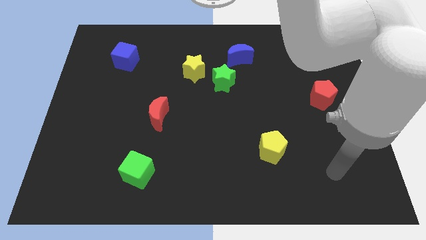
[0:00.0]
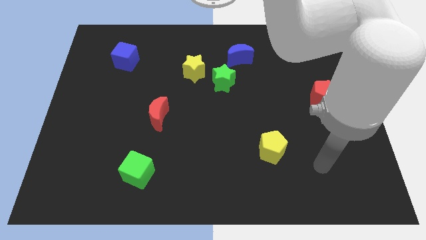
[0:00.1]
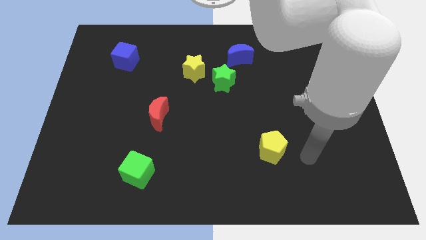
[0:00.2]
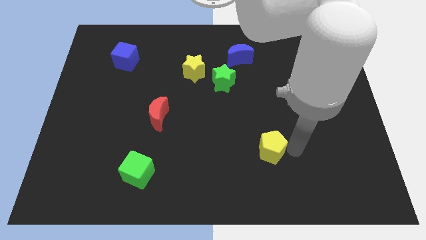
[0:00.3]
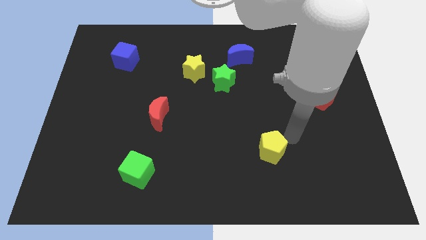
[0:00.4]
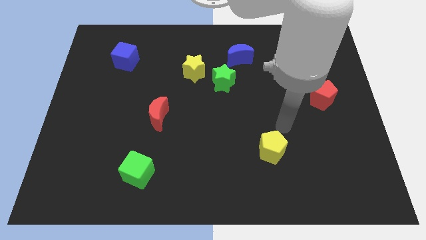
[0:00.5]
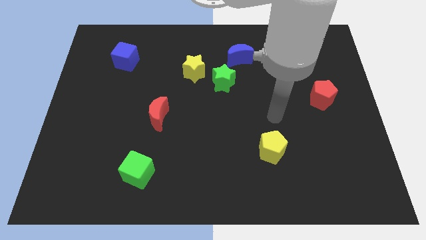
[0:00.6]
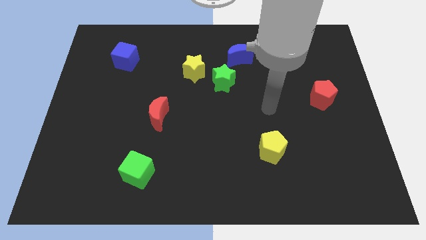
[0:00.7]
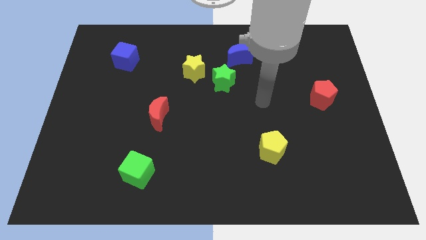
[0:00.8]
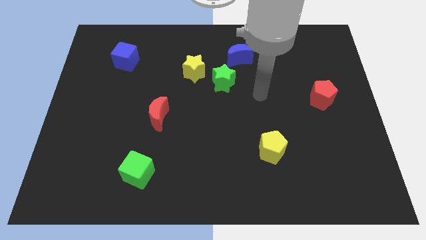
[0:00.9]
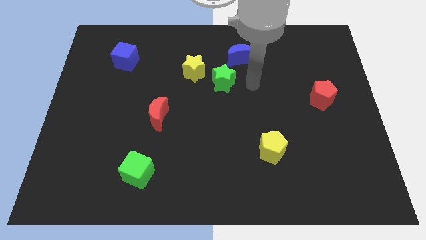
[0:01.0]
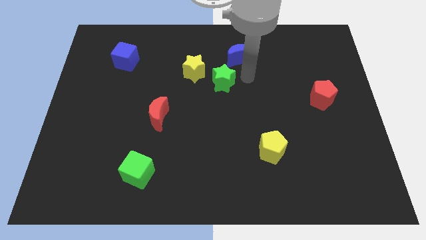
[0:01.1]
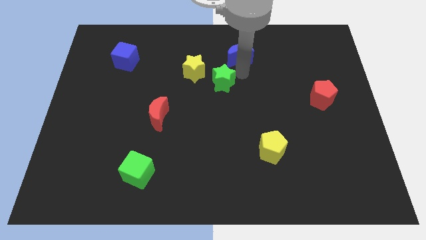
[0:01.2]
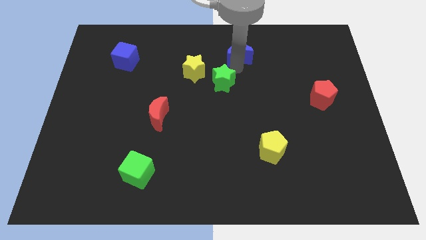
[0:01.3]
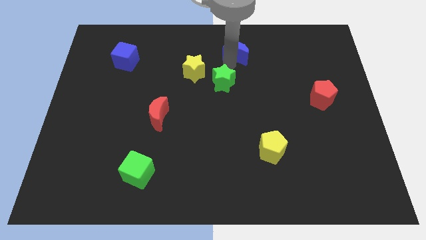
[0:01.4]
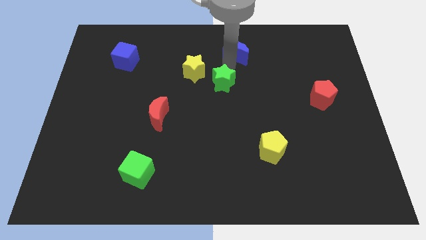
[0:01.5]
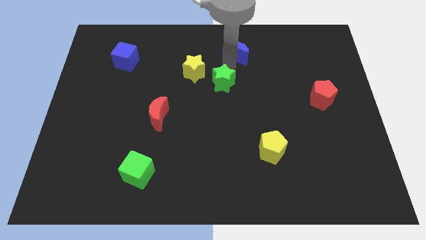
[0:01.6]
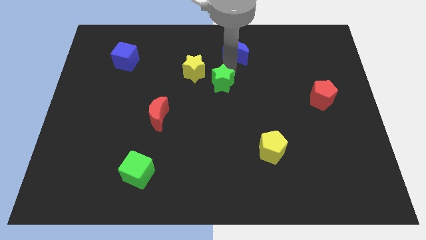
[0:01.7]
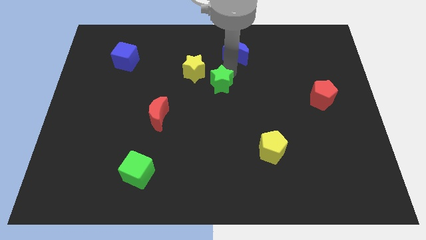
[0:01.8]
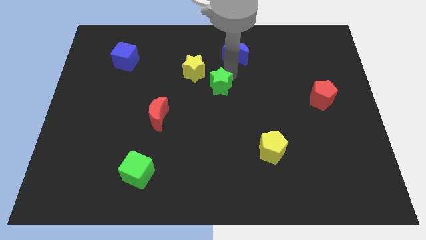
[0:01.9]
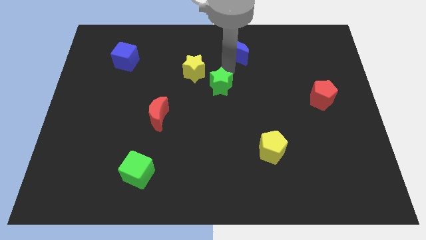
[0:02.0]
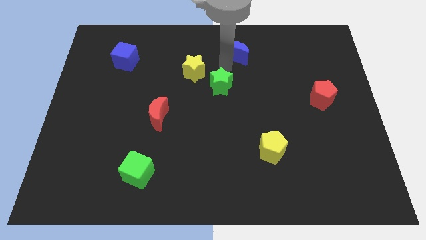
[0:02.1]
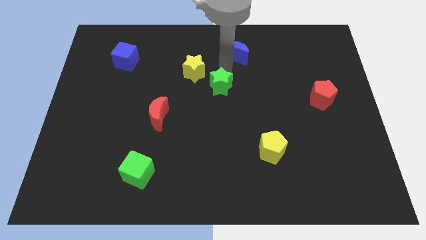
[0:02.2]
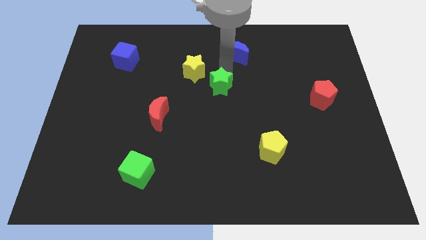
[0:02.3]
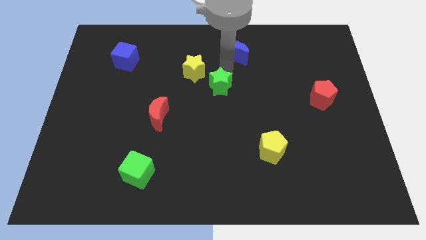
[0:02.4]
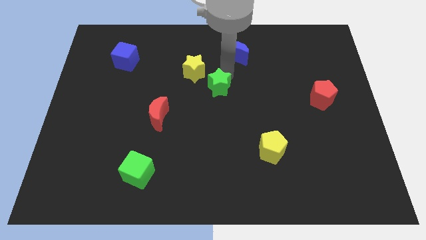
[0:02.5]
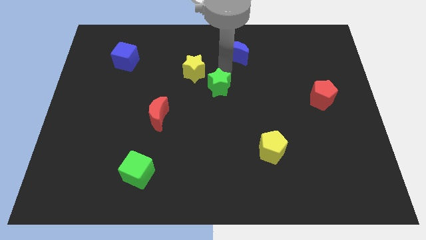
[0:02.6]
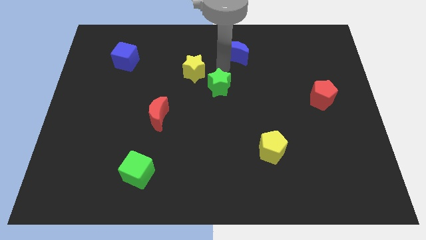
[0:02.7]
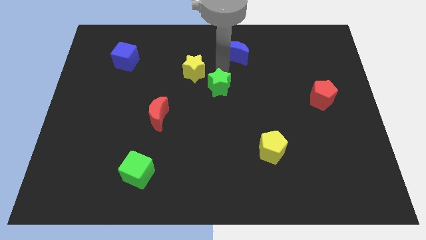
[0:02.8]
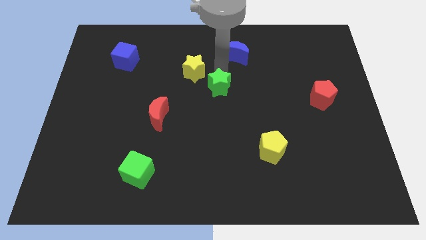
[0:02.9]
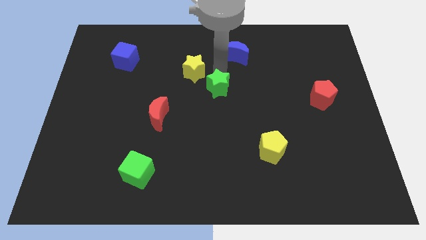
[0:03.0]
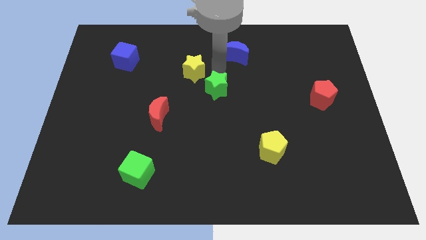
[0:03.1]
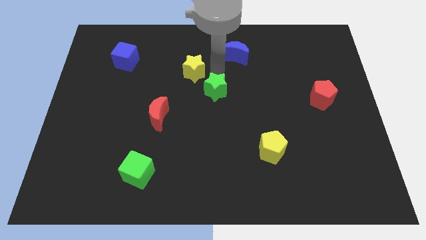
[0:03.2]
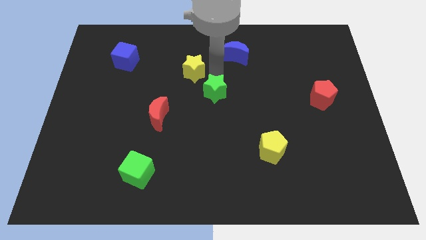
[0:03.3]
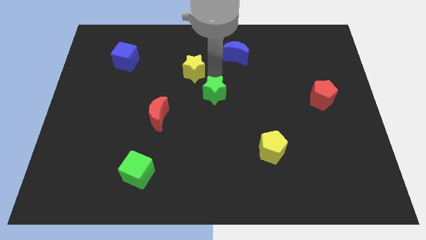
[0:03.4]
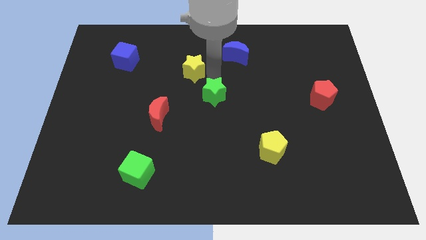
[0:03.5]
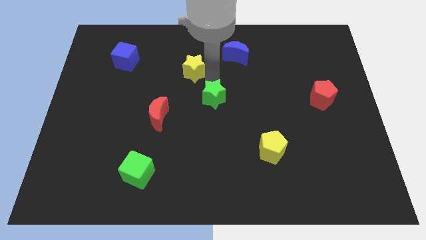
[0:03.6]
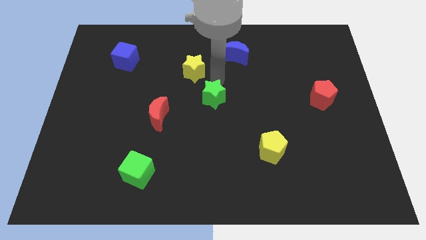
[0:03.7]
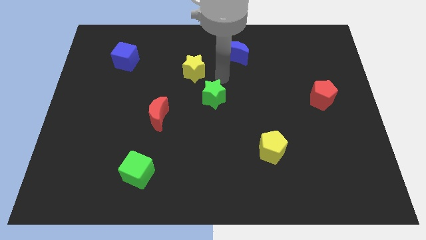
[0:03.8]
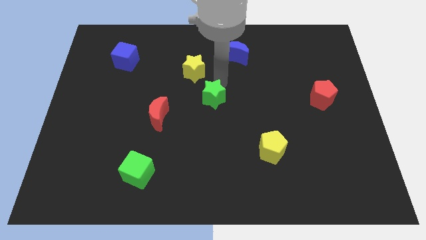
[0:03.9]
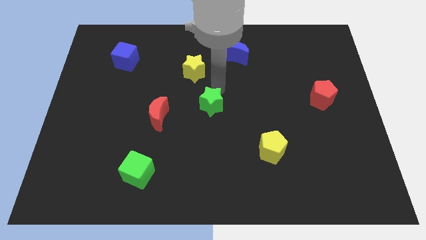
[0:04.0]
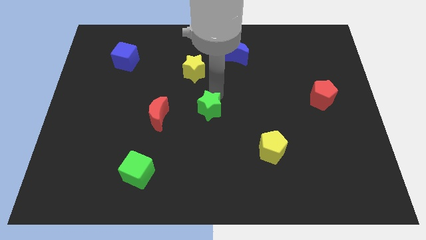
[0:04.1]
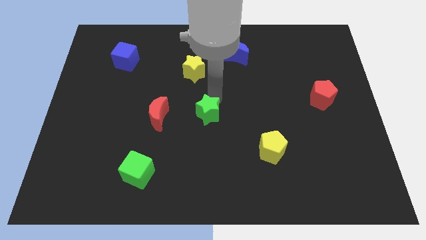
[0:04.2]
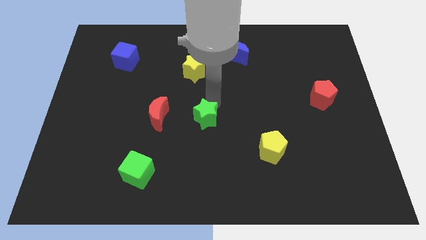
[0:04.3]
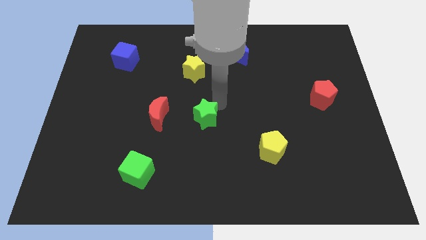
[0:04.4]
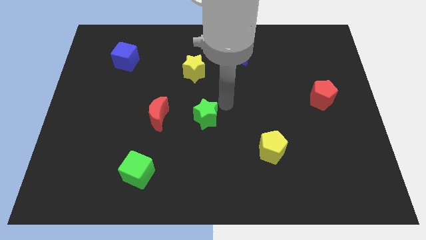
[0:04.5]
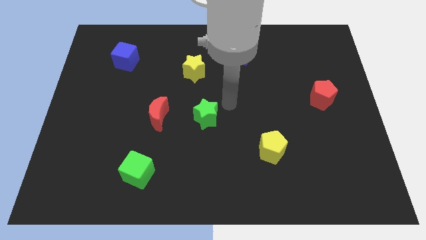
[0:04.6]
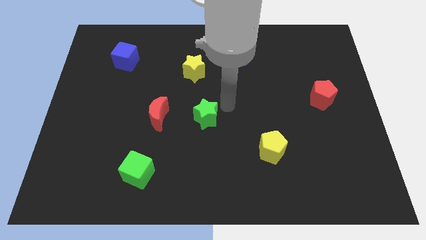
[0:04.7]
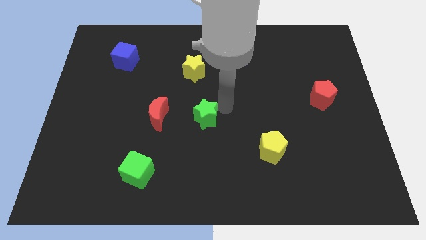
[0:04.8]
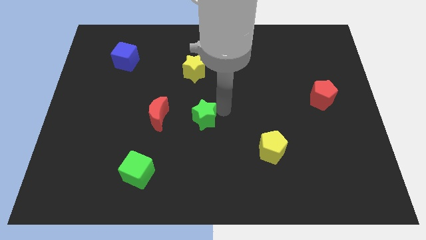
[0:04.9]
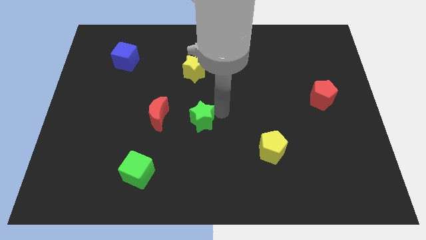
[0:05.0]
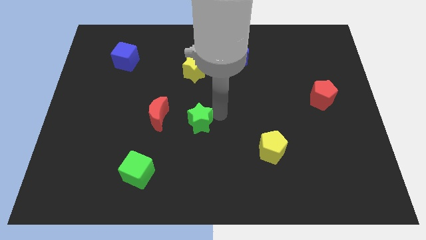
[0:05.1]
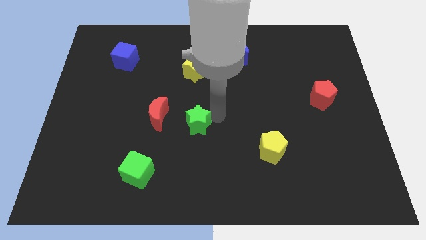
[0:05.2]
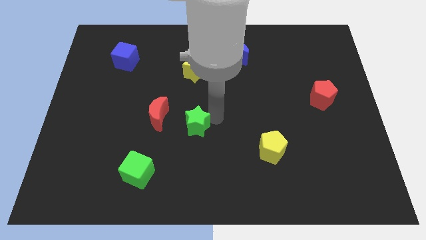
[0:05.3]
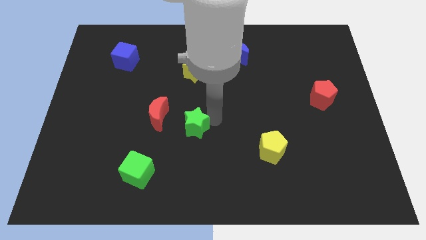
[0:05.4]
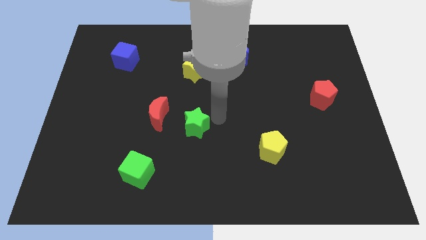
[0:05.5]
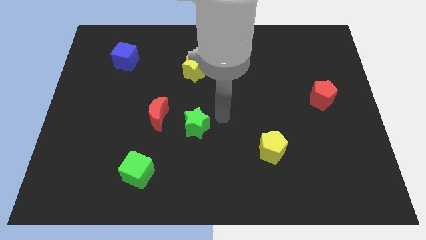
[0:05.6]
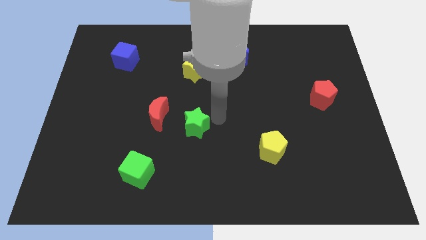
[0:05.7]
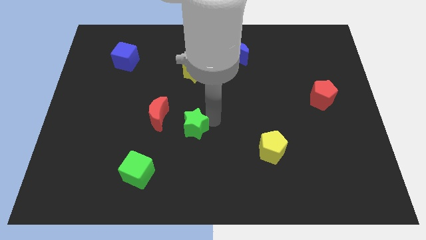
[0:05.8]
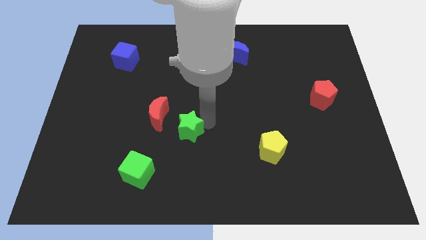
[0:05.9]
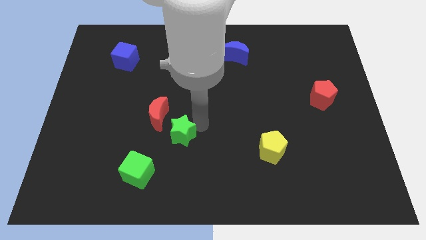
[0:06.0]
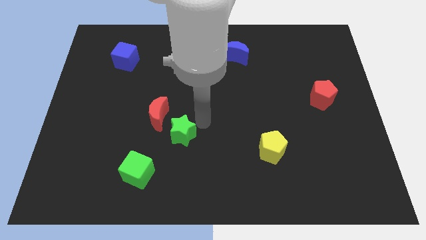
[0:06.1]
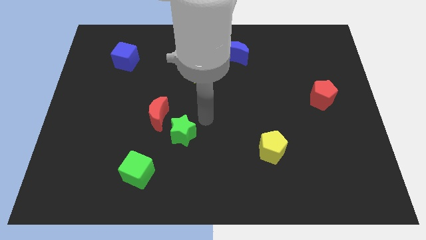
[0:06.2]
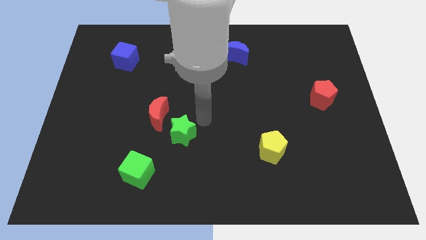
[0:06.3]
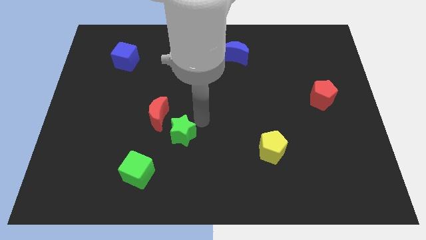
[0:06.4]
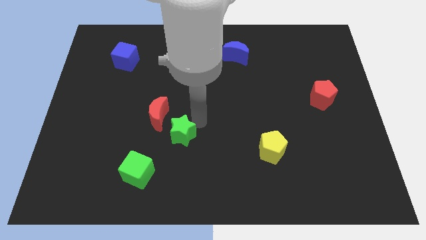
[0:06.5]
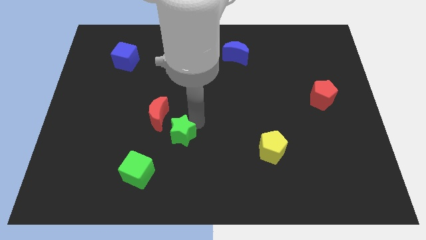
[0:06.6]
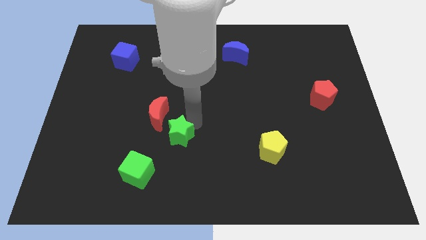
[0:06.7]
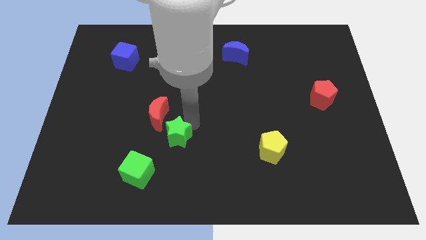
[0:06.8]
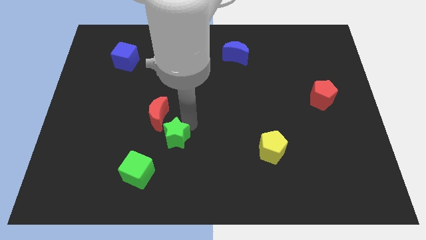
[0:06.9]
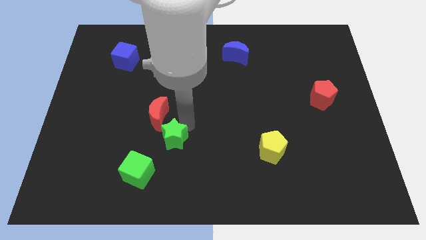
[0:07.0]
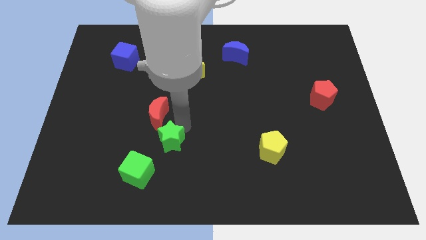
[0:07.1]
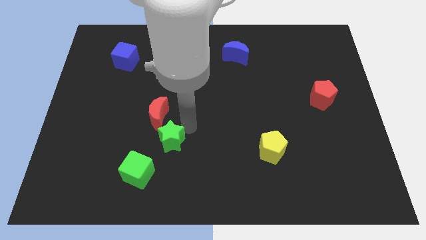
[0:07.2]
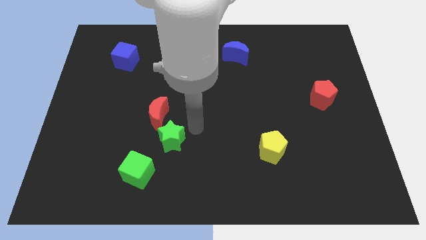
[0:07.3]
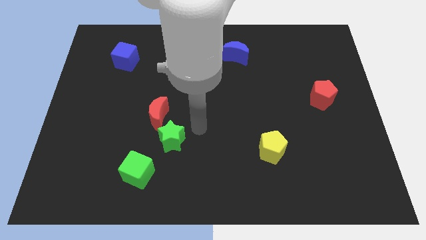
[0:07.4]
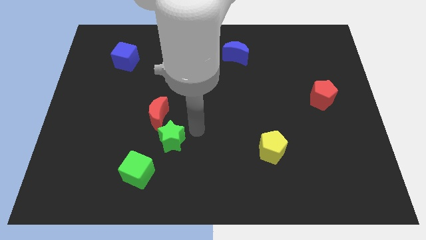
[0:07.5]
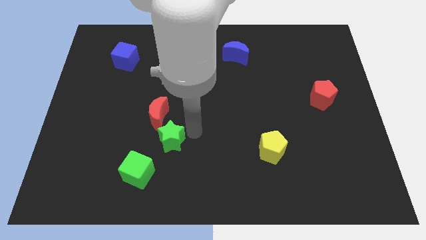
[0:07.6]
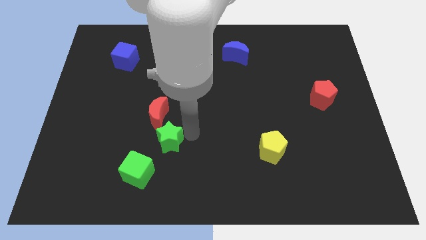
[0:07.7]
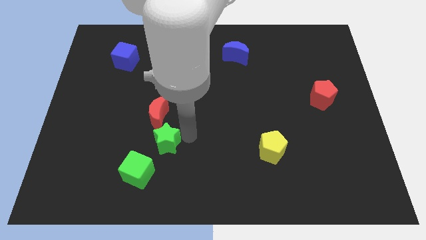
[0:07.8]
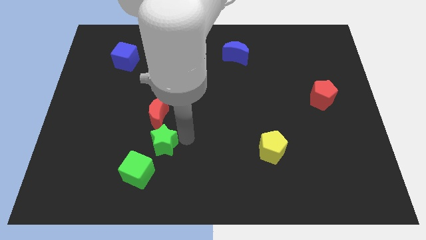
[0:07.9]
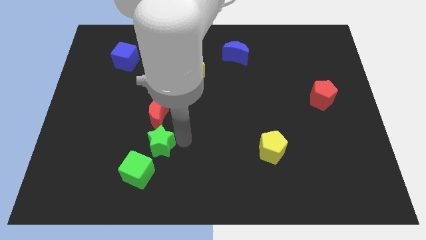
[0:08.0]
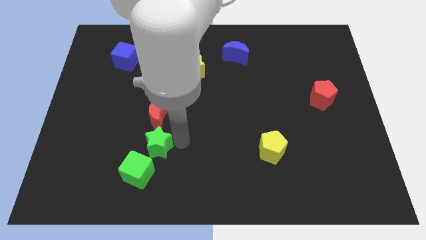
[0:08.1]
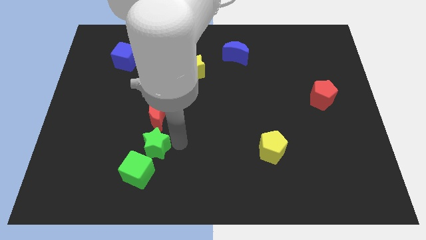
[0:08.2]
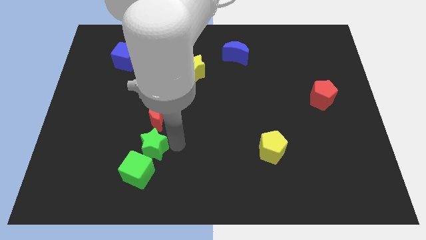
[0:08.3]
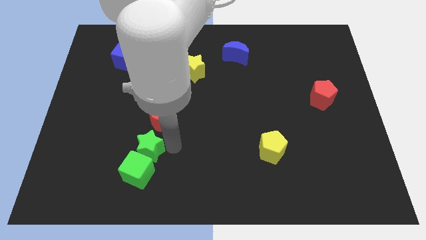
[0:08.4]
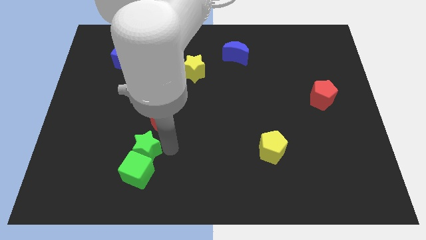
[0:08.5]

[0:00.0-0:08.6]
slide the green star to the top left side of the green cube
